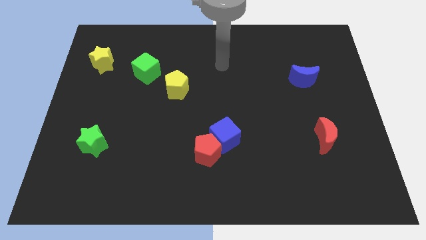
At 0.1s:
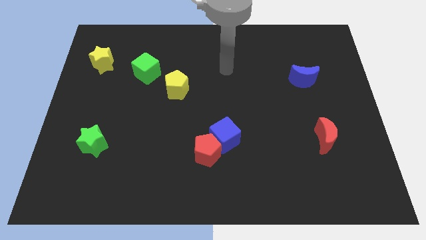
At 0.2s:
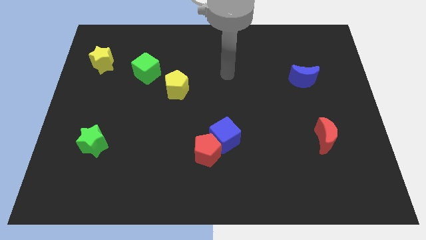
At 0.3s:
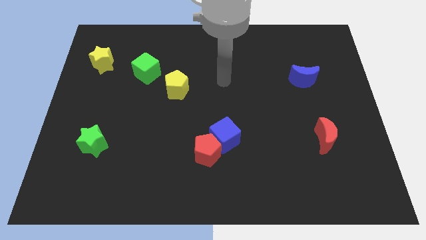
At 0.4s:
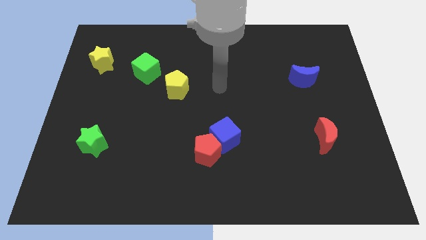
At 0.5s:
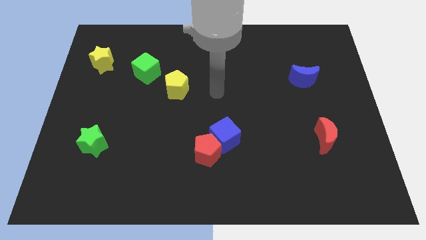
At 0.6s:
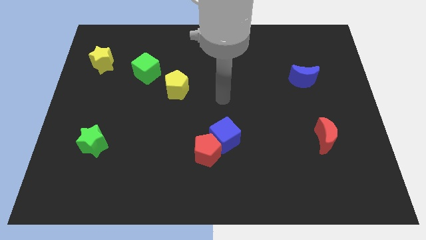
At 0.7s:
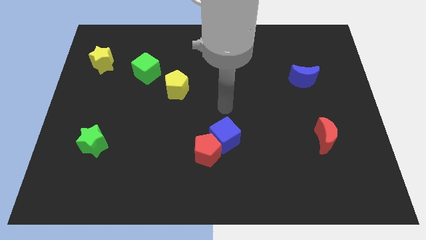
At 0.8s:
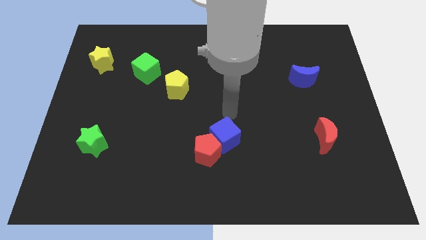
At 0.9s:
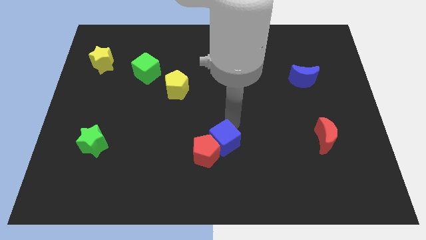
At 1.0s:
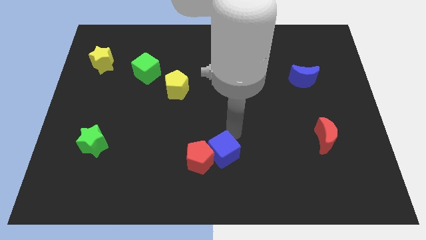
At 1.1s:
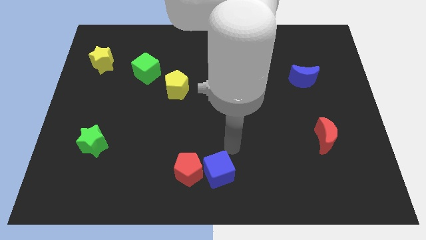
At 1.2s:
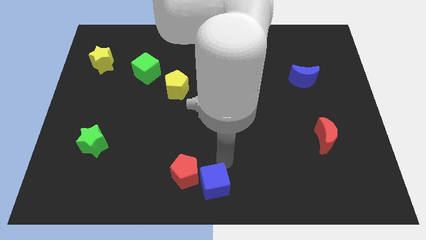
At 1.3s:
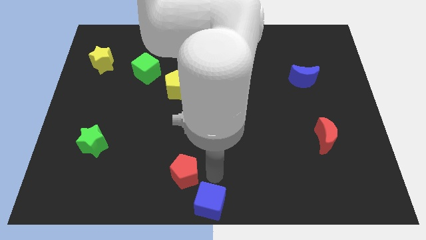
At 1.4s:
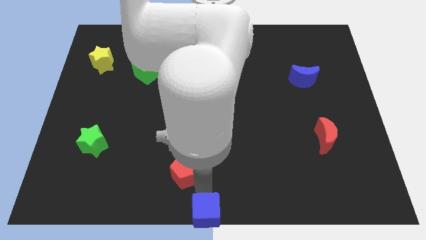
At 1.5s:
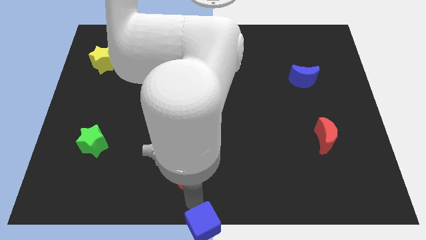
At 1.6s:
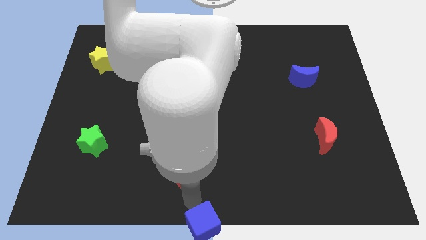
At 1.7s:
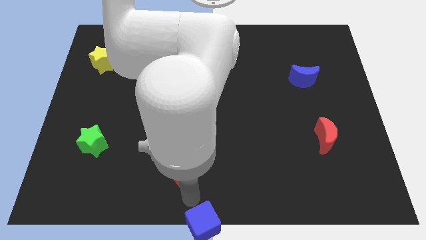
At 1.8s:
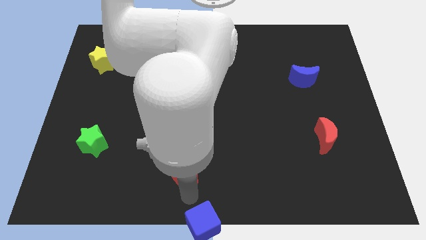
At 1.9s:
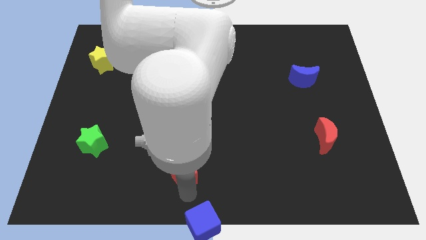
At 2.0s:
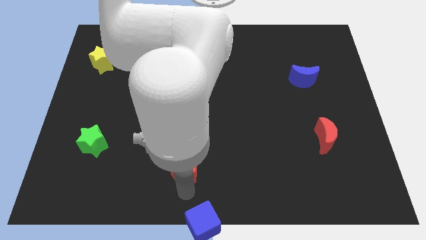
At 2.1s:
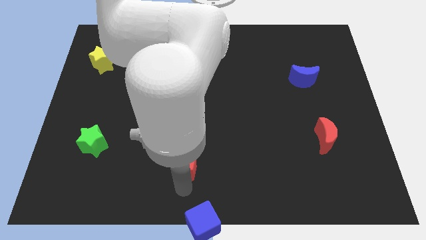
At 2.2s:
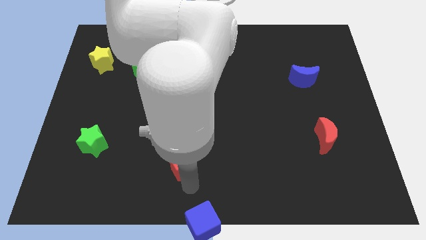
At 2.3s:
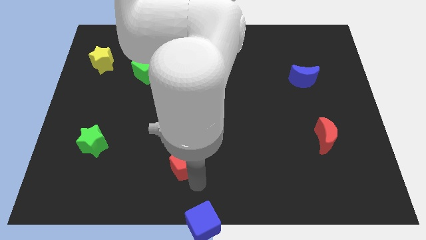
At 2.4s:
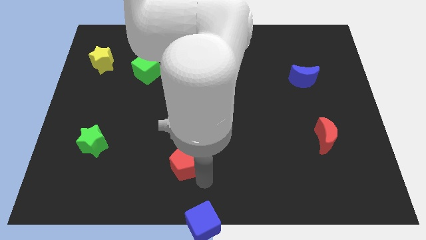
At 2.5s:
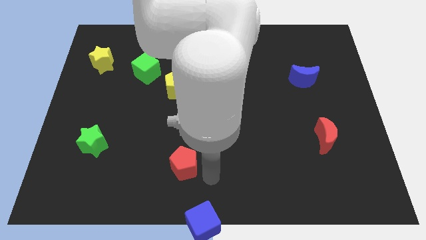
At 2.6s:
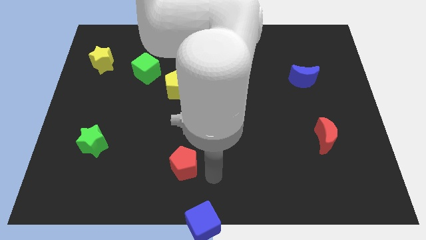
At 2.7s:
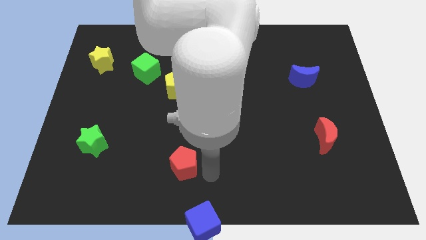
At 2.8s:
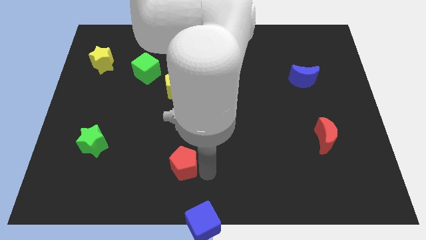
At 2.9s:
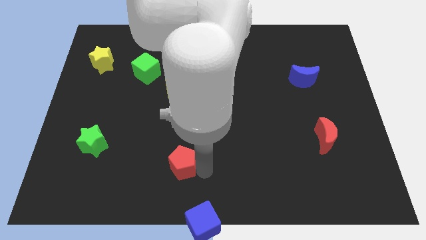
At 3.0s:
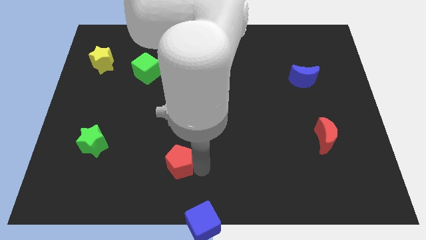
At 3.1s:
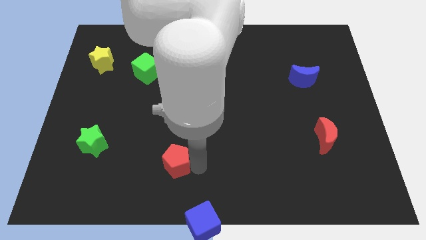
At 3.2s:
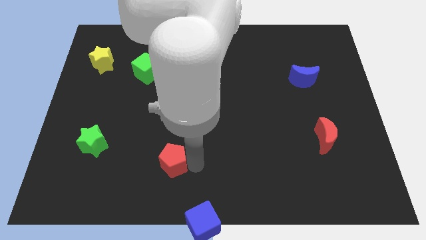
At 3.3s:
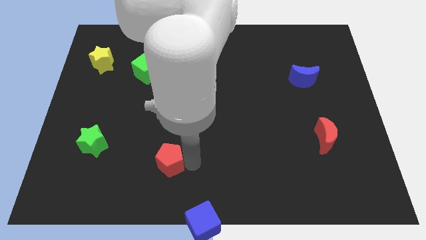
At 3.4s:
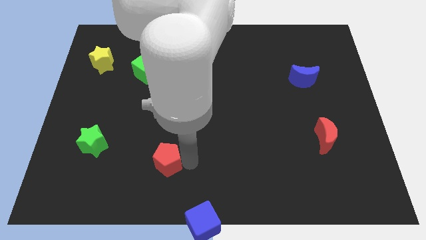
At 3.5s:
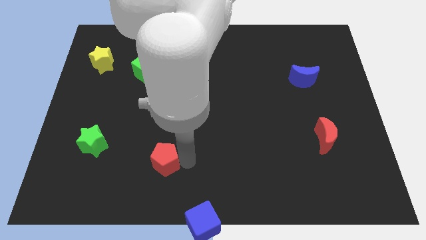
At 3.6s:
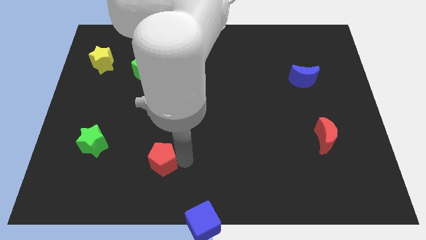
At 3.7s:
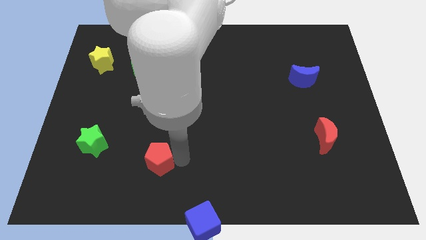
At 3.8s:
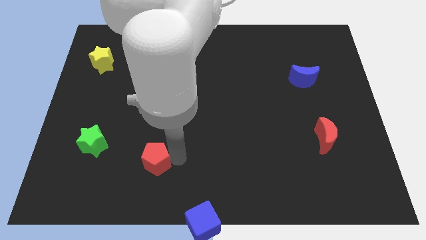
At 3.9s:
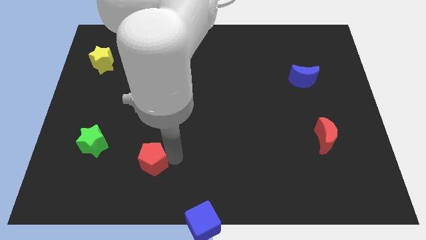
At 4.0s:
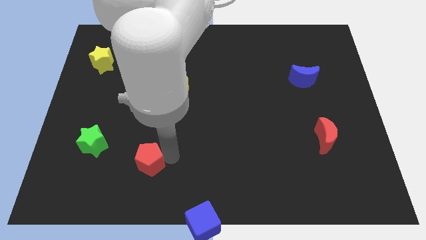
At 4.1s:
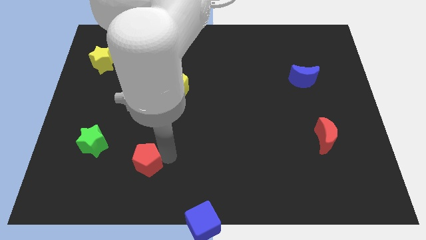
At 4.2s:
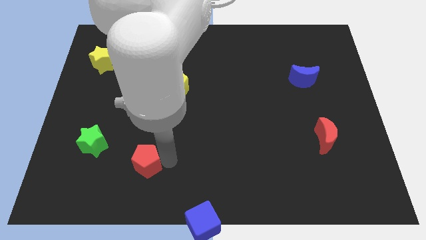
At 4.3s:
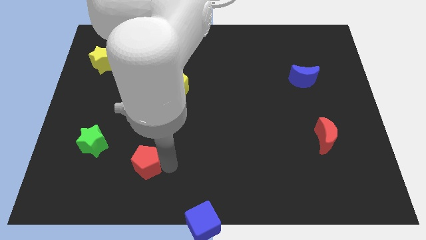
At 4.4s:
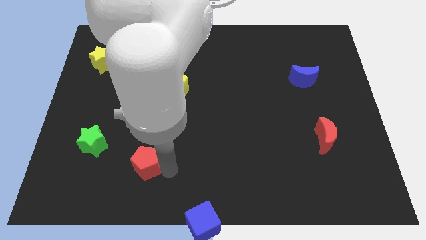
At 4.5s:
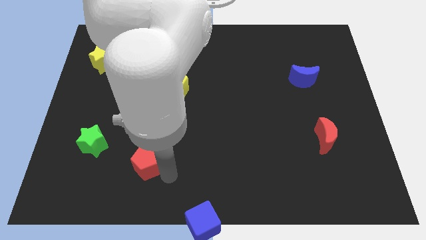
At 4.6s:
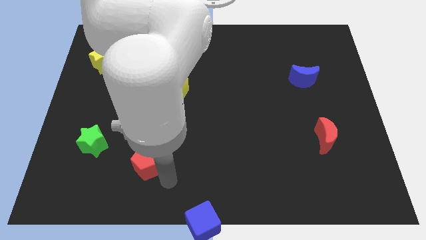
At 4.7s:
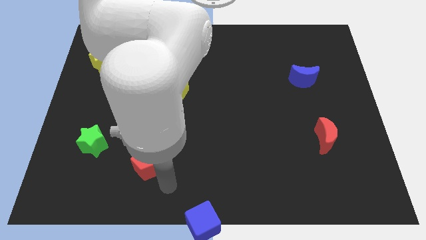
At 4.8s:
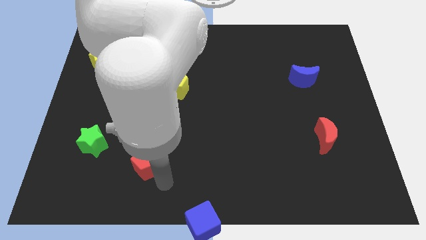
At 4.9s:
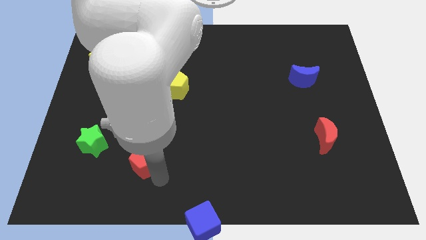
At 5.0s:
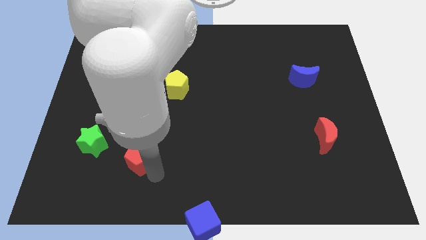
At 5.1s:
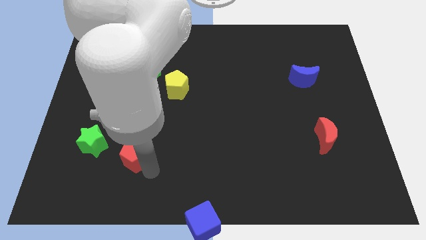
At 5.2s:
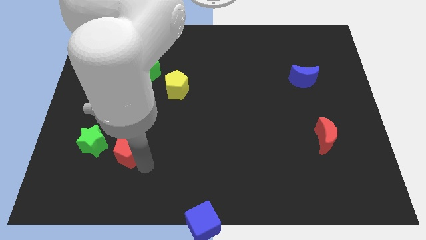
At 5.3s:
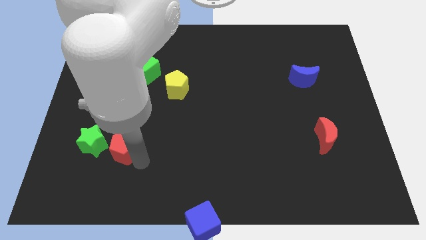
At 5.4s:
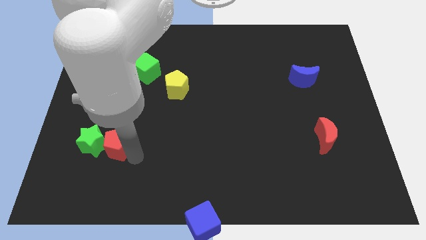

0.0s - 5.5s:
slide the red pentagon towards the green star

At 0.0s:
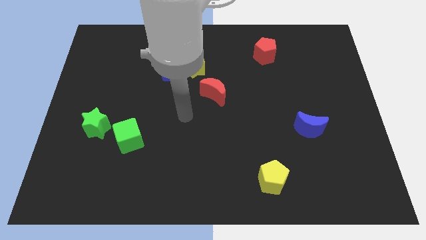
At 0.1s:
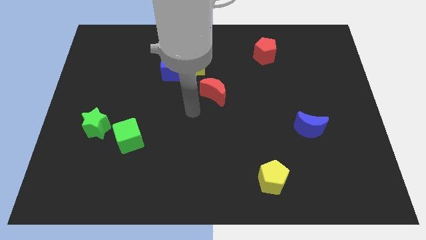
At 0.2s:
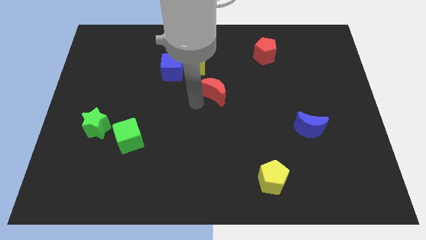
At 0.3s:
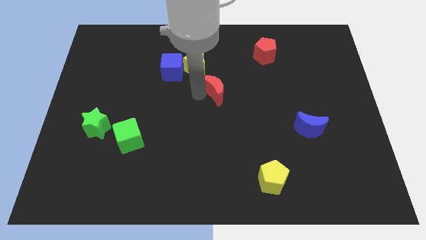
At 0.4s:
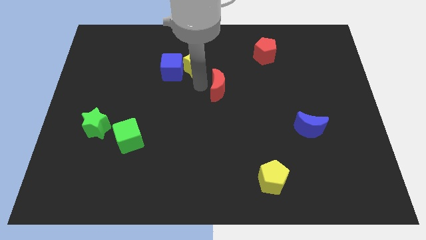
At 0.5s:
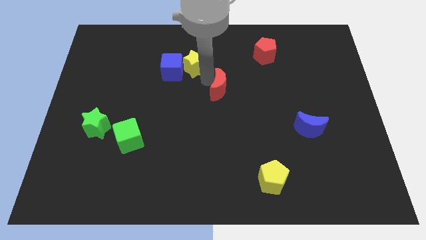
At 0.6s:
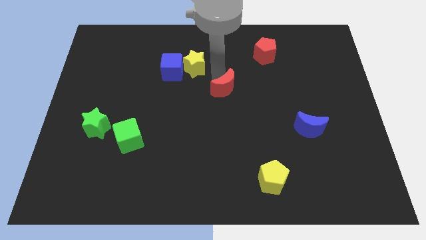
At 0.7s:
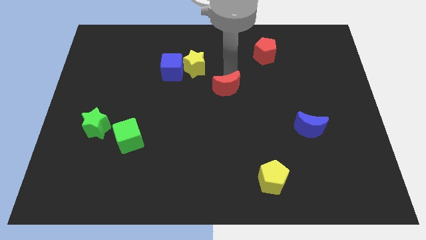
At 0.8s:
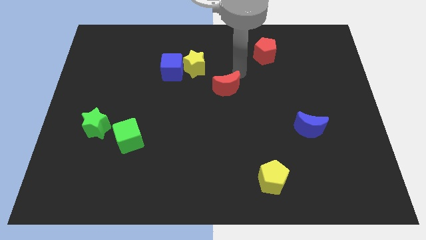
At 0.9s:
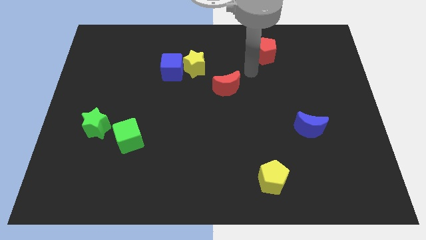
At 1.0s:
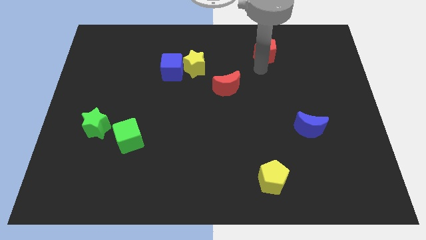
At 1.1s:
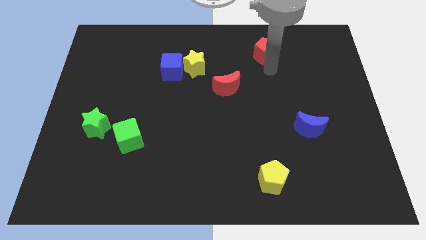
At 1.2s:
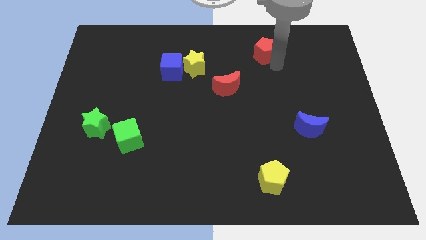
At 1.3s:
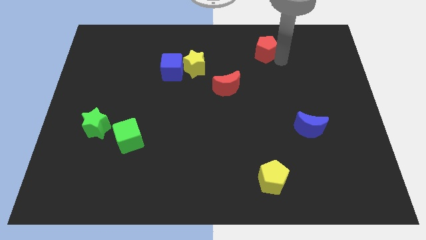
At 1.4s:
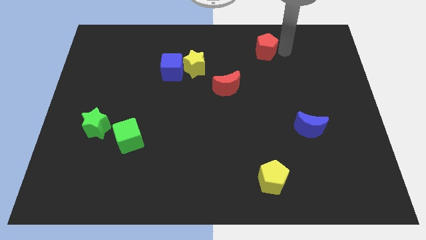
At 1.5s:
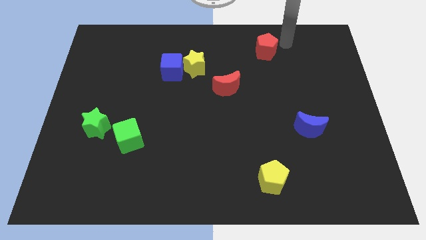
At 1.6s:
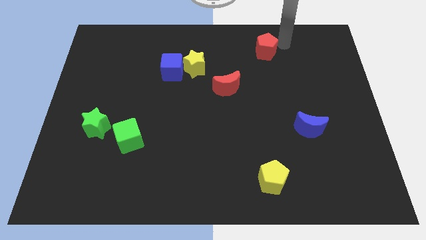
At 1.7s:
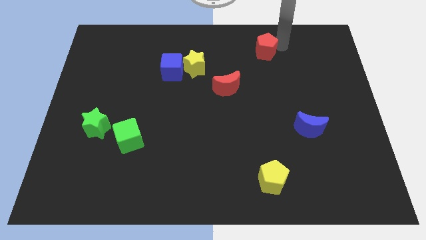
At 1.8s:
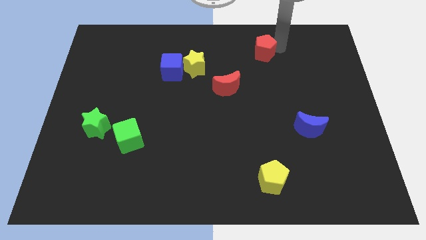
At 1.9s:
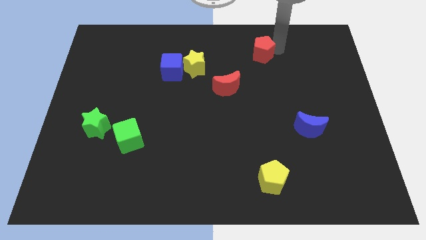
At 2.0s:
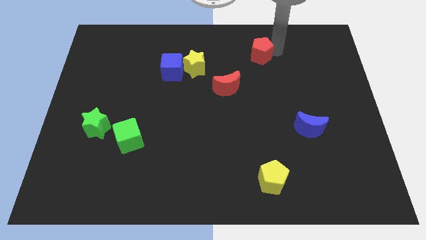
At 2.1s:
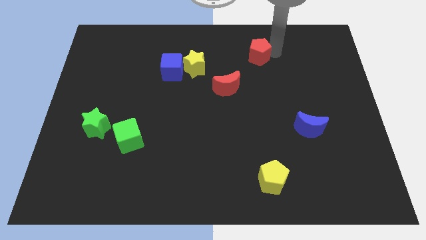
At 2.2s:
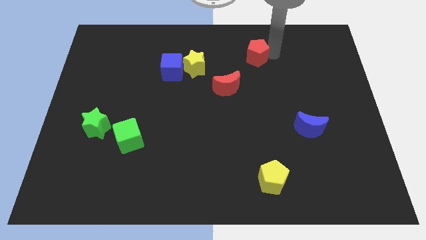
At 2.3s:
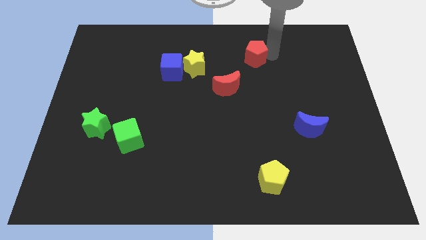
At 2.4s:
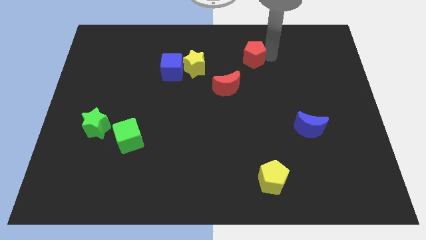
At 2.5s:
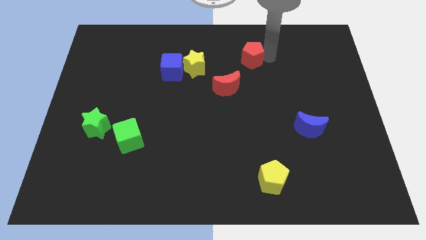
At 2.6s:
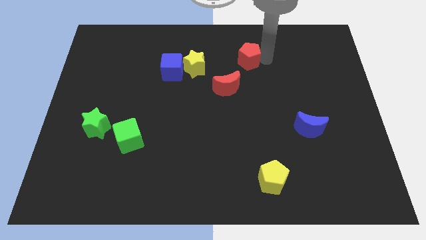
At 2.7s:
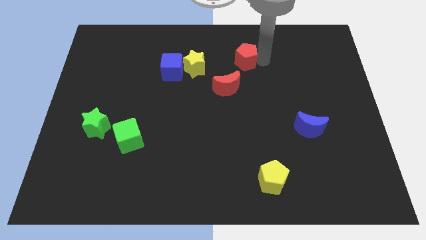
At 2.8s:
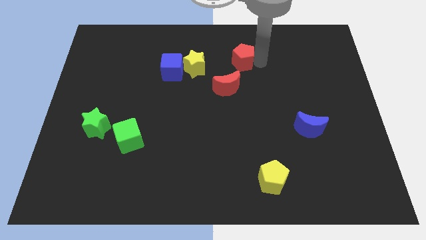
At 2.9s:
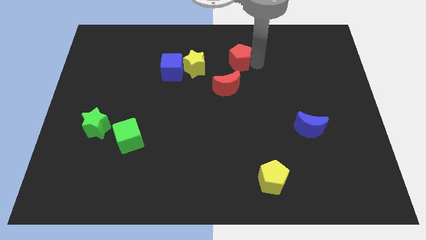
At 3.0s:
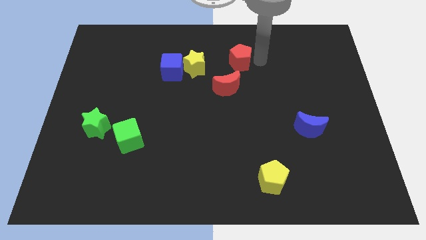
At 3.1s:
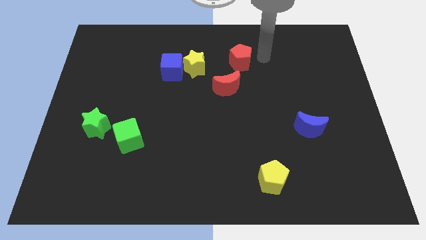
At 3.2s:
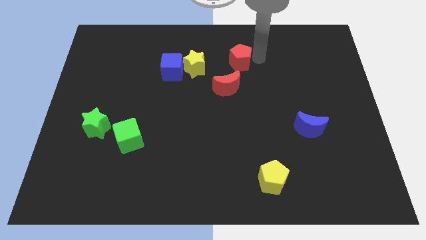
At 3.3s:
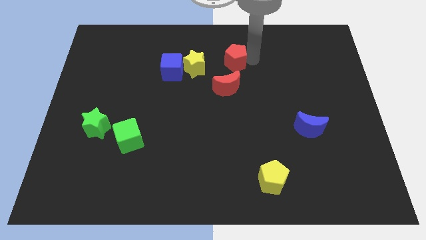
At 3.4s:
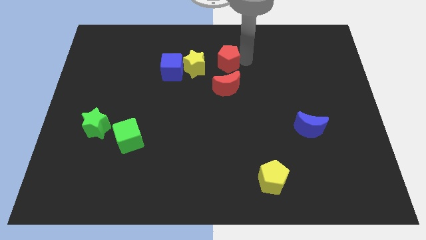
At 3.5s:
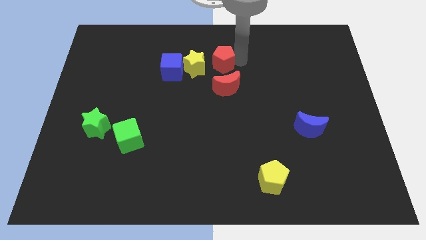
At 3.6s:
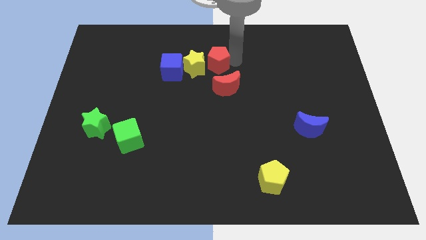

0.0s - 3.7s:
push the red pentagon next to the yellow star
